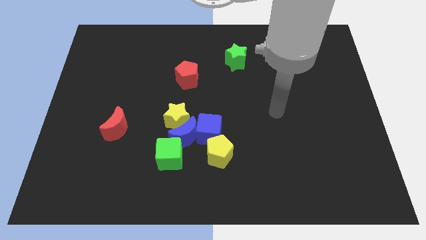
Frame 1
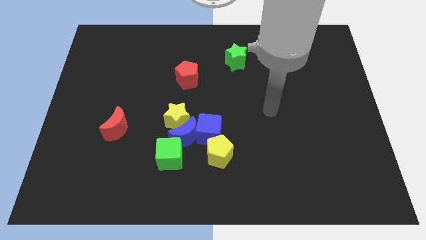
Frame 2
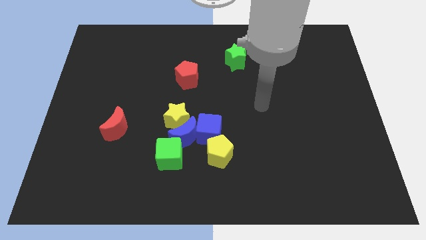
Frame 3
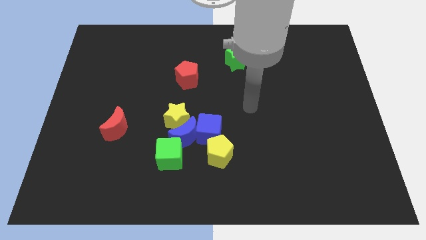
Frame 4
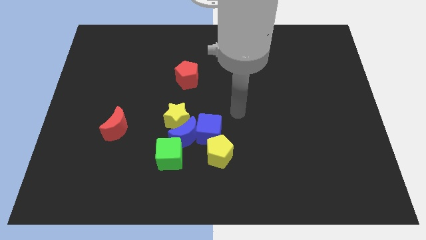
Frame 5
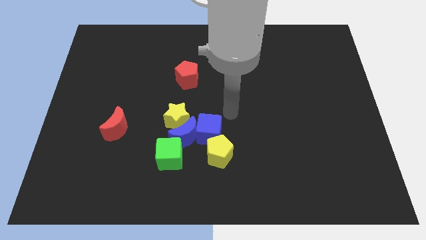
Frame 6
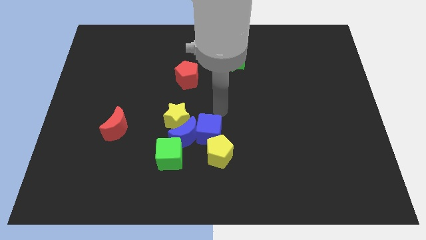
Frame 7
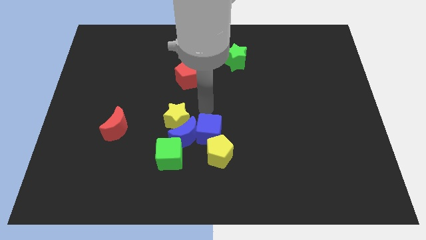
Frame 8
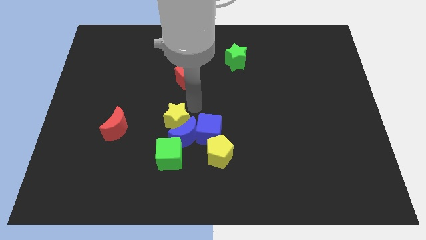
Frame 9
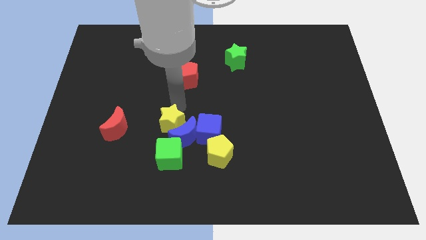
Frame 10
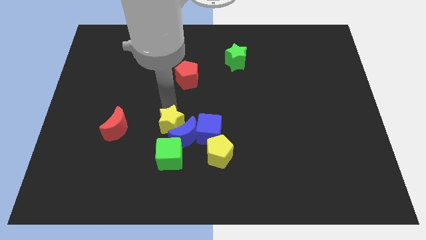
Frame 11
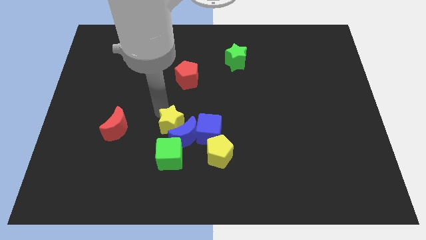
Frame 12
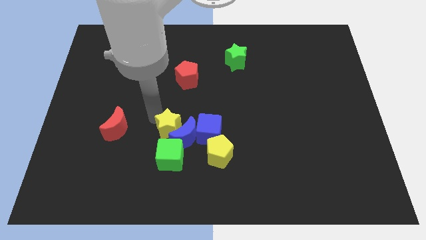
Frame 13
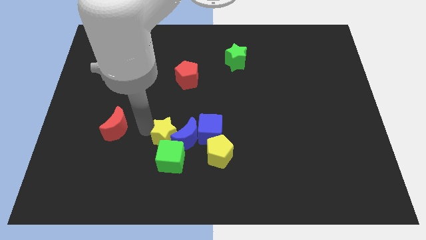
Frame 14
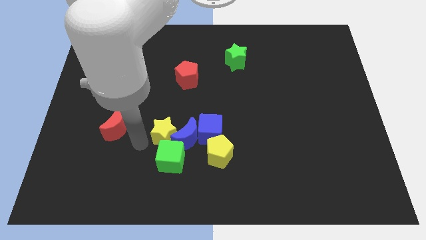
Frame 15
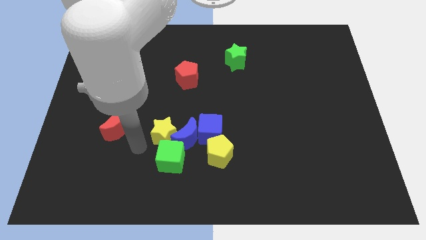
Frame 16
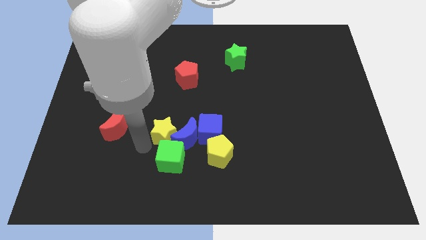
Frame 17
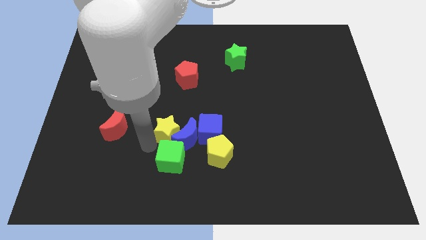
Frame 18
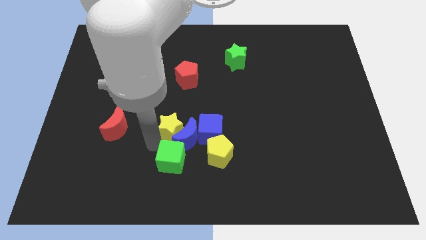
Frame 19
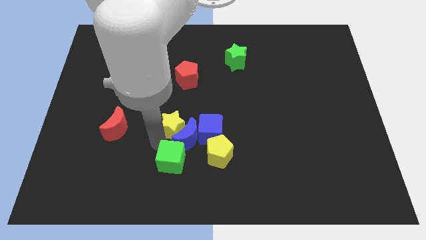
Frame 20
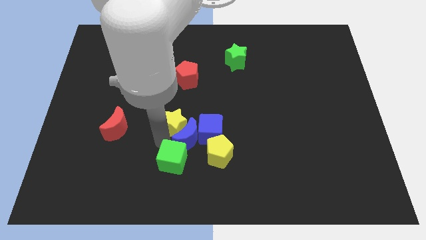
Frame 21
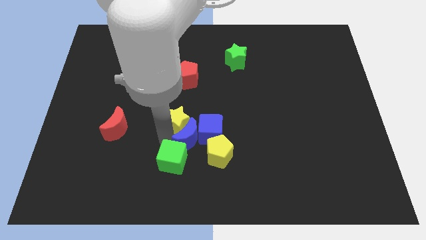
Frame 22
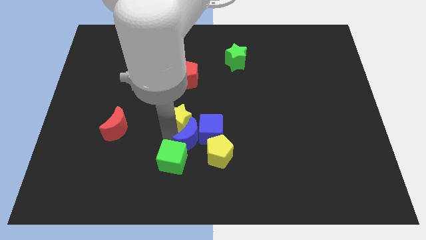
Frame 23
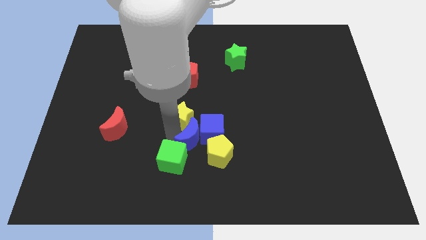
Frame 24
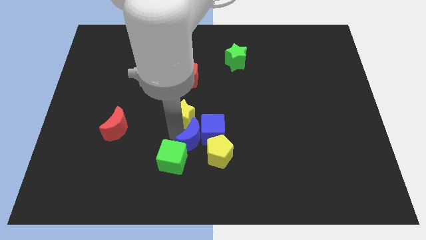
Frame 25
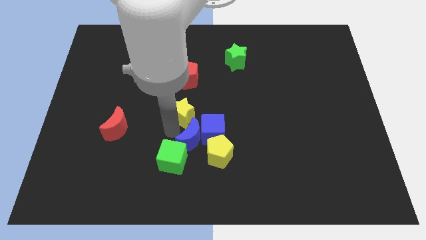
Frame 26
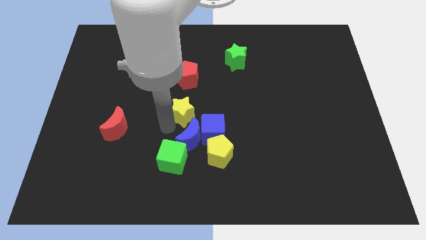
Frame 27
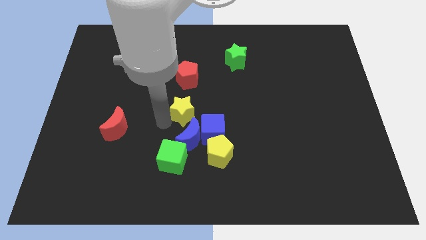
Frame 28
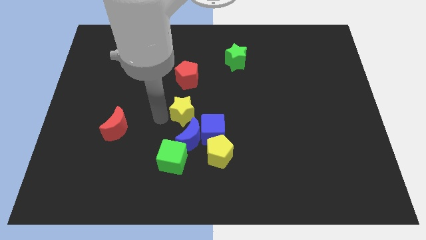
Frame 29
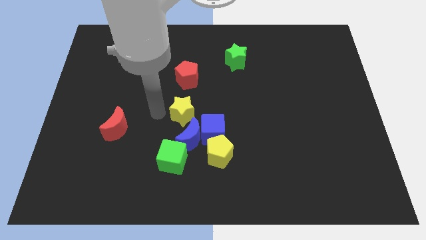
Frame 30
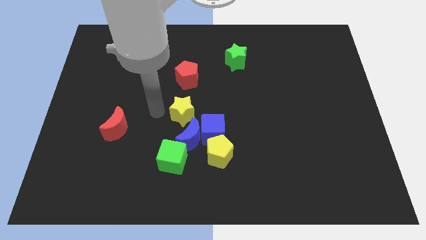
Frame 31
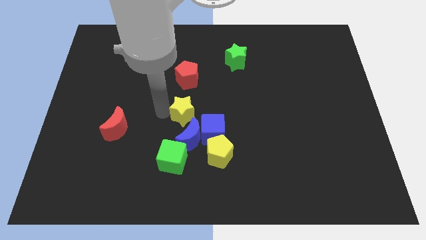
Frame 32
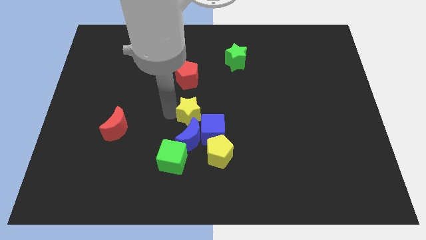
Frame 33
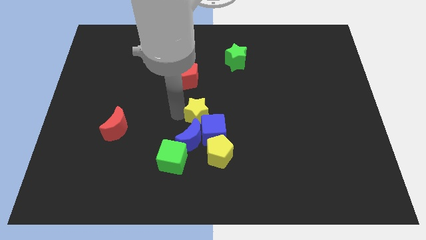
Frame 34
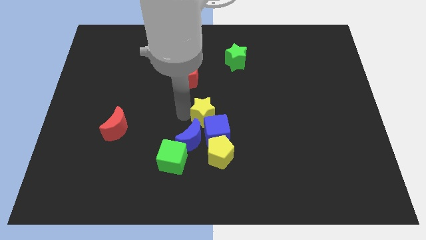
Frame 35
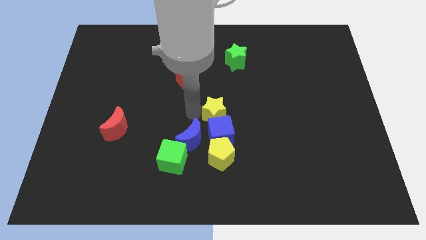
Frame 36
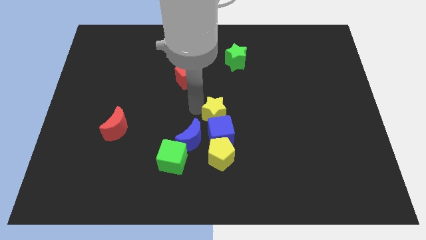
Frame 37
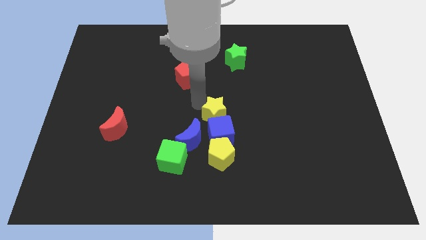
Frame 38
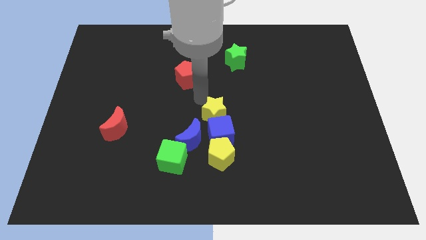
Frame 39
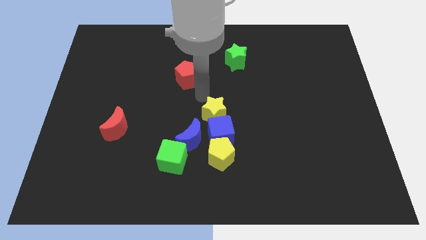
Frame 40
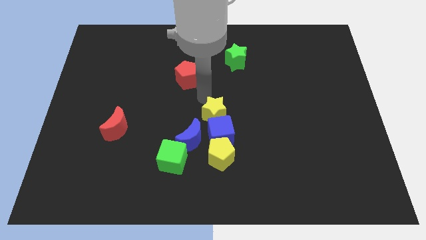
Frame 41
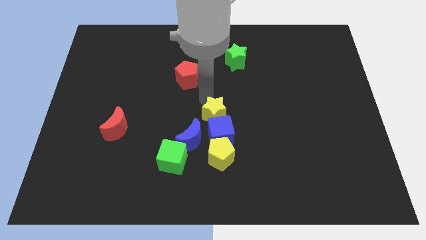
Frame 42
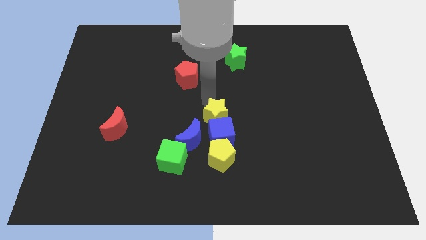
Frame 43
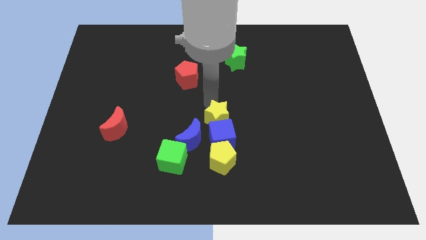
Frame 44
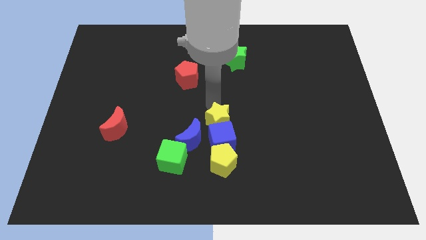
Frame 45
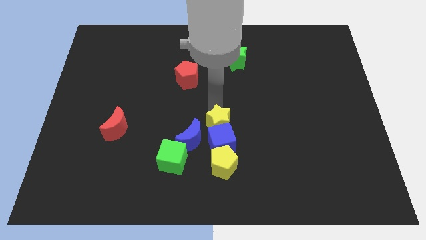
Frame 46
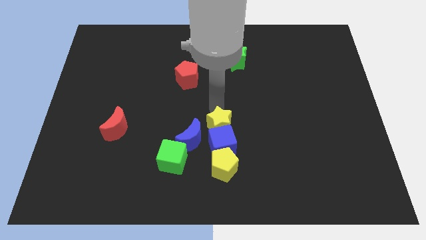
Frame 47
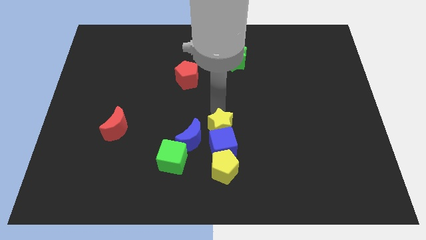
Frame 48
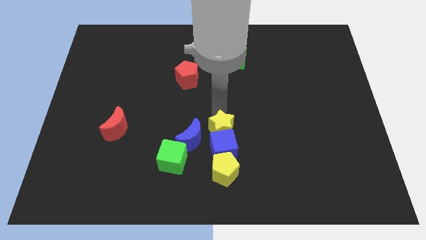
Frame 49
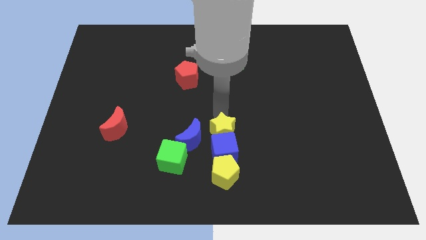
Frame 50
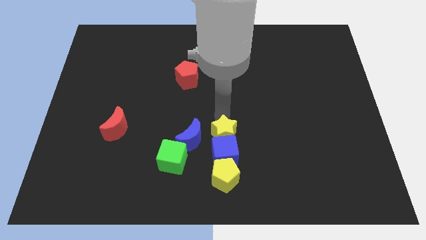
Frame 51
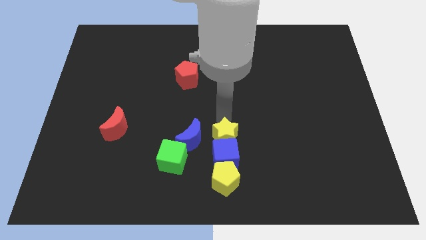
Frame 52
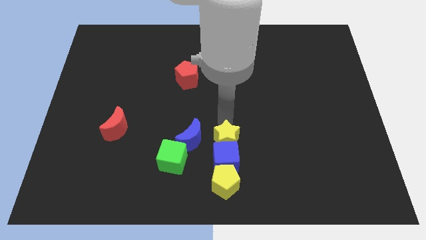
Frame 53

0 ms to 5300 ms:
push the yellow star to the right of the green cube

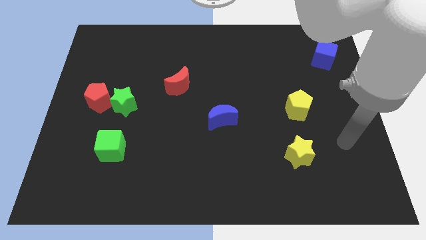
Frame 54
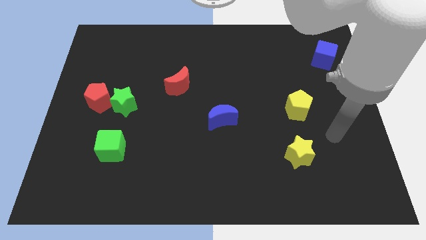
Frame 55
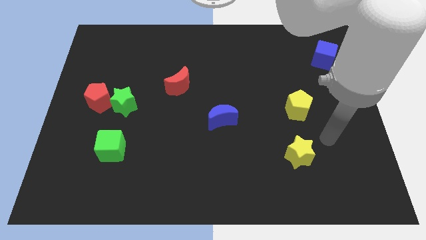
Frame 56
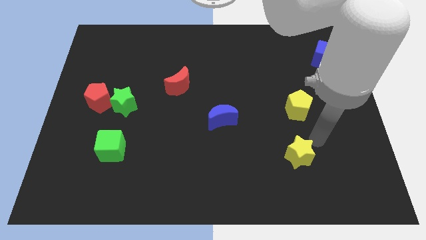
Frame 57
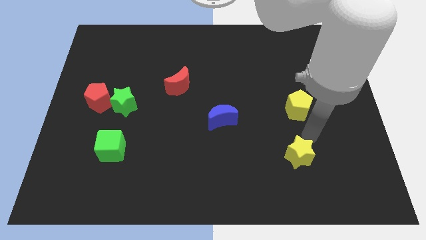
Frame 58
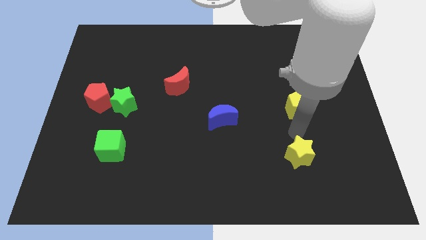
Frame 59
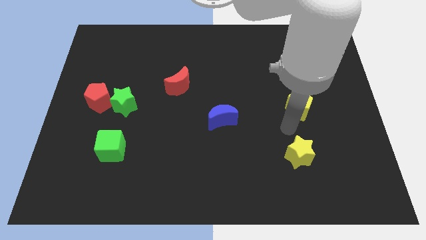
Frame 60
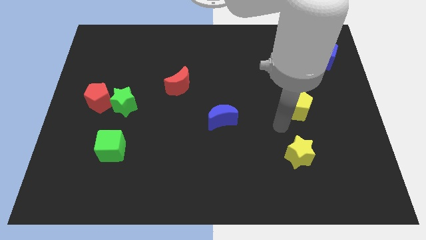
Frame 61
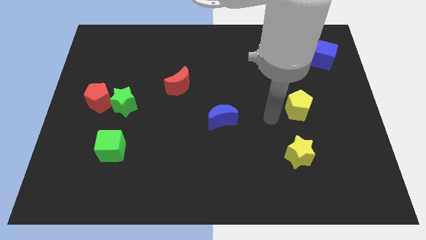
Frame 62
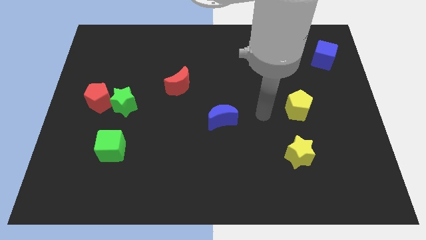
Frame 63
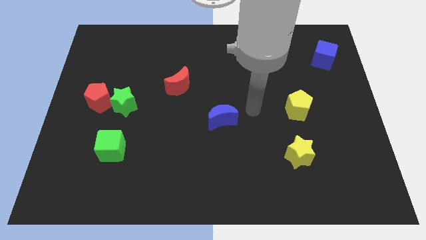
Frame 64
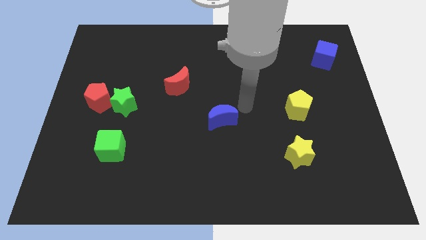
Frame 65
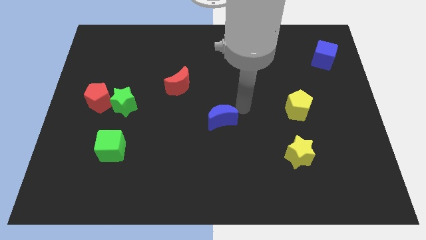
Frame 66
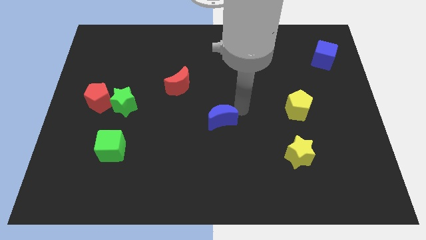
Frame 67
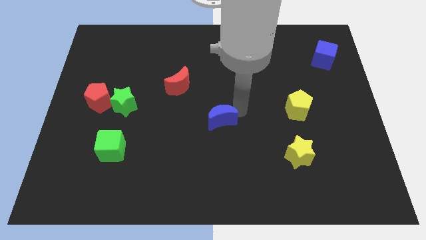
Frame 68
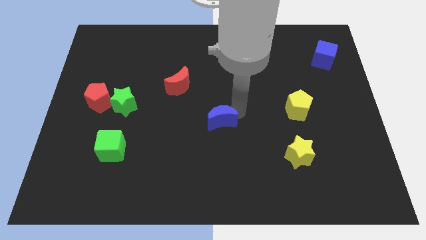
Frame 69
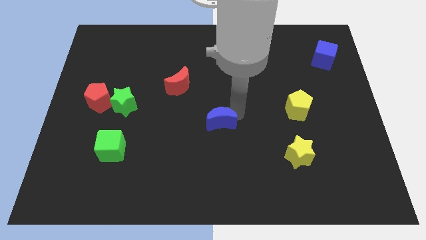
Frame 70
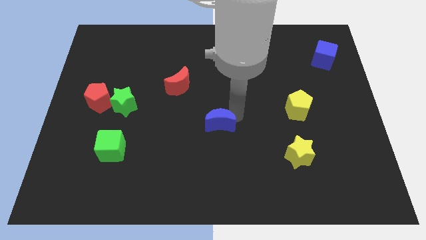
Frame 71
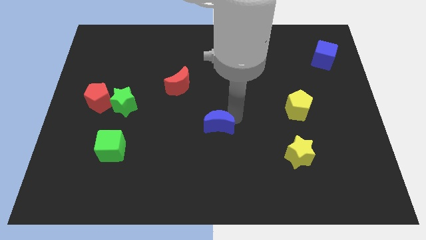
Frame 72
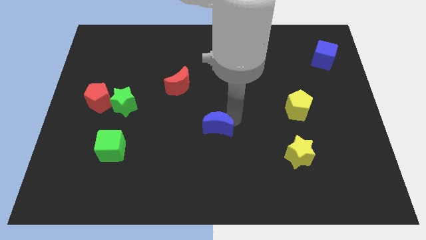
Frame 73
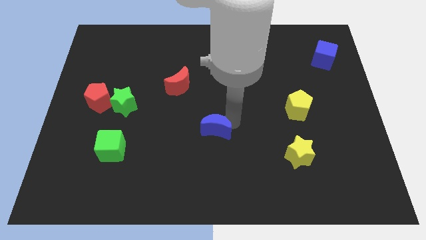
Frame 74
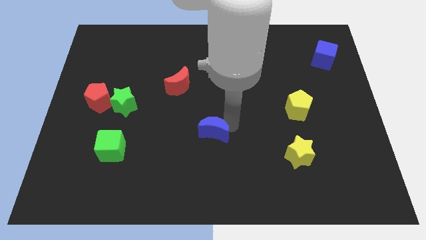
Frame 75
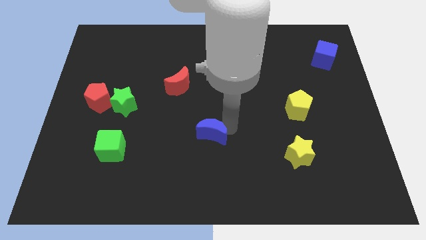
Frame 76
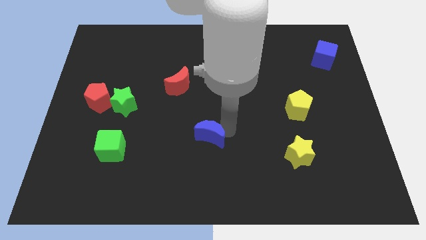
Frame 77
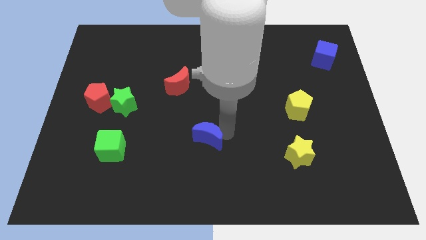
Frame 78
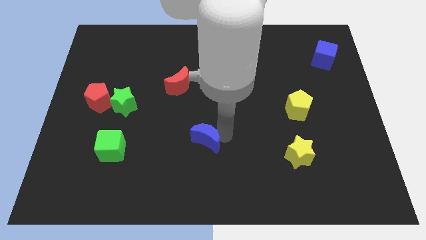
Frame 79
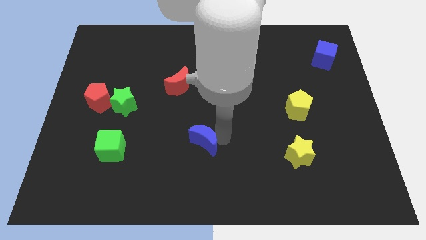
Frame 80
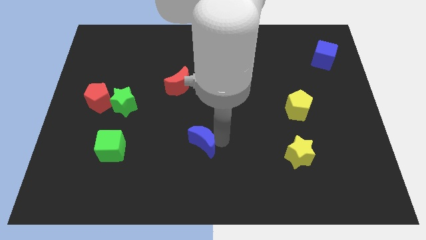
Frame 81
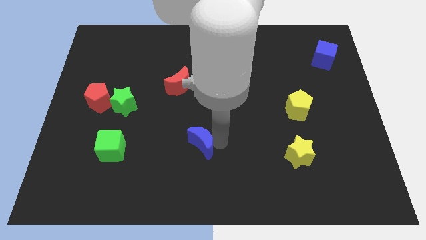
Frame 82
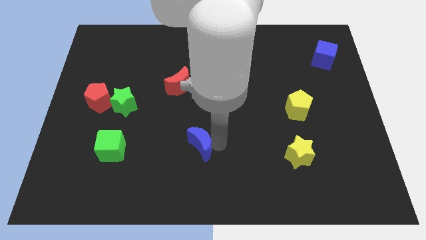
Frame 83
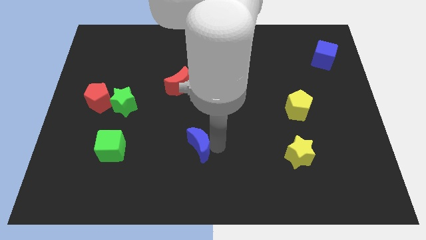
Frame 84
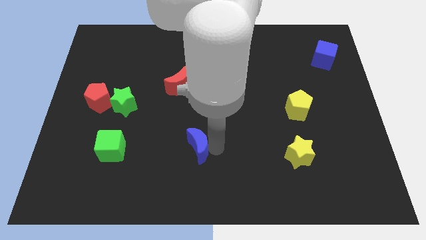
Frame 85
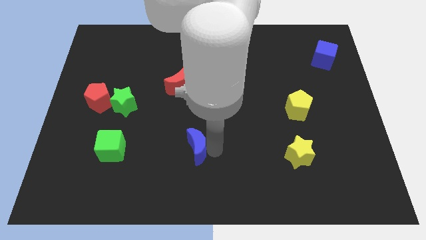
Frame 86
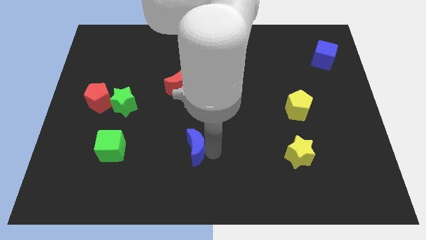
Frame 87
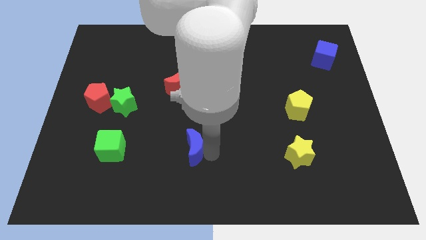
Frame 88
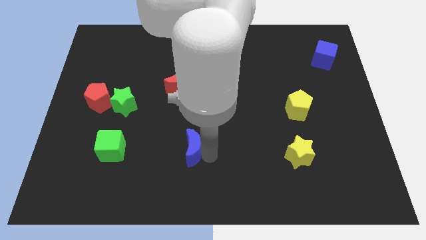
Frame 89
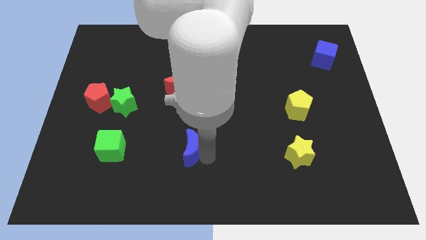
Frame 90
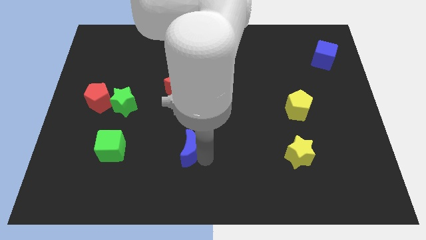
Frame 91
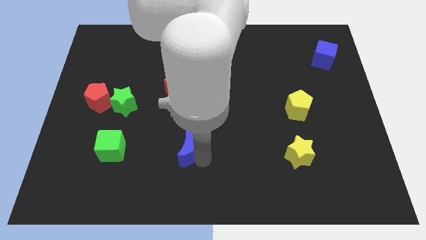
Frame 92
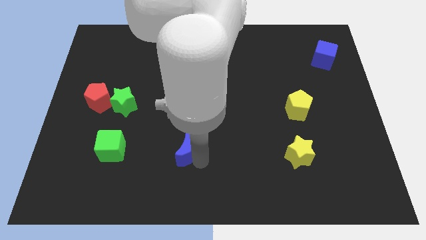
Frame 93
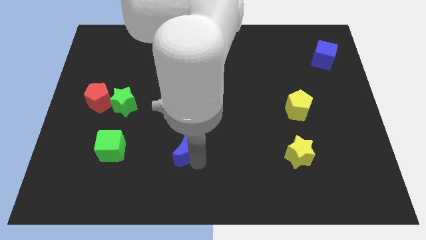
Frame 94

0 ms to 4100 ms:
slide the blue moon to the right side of the green cube
